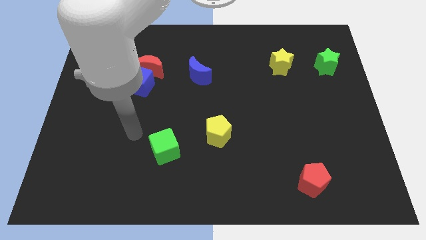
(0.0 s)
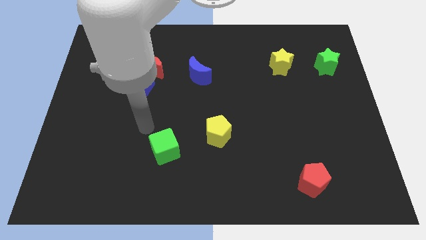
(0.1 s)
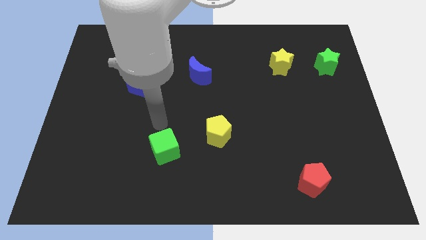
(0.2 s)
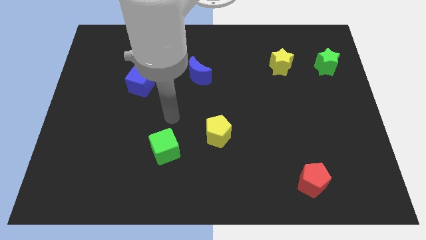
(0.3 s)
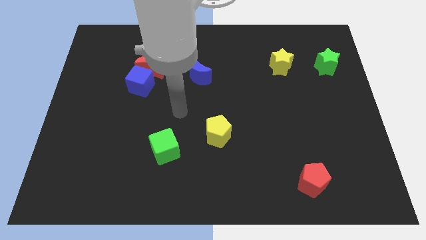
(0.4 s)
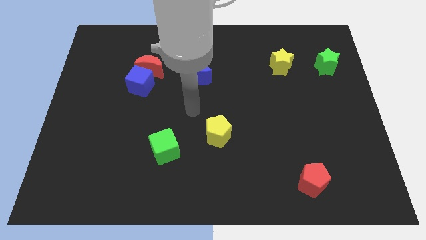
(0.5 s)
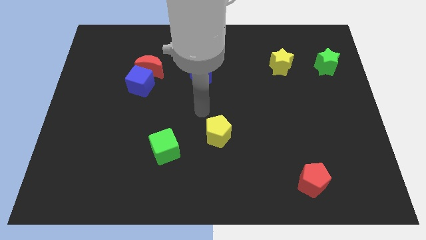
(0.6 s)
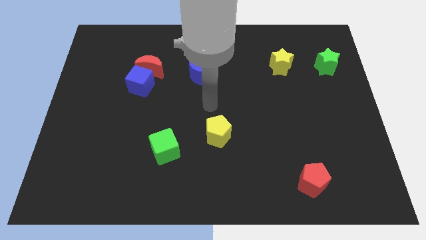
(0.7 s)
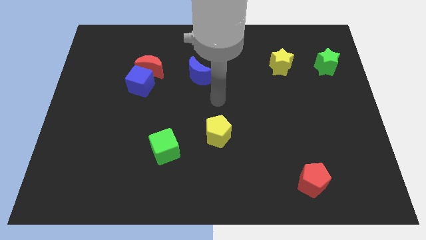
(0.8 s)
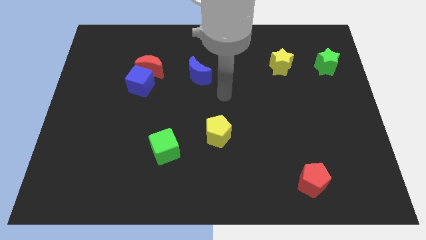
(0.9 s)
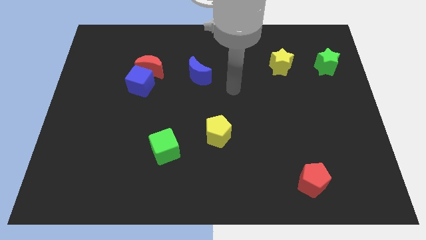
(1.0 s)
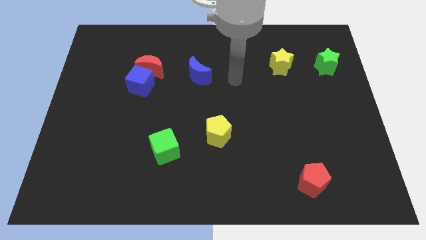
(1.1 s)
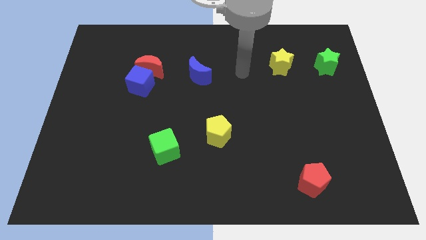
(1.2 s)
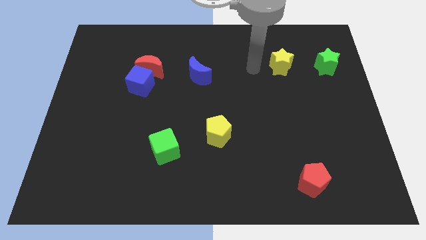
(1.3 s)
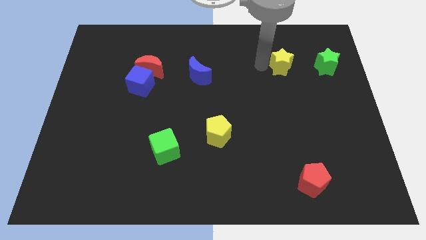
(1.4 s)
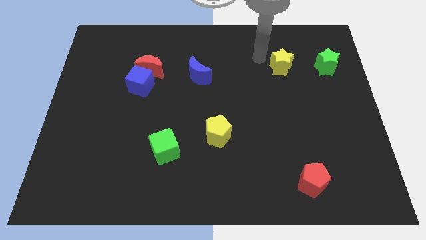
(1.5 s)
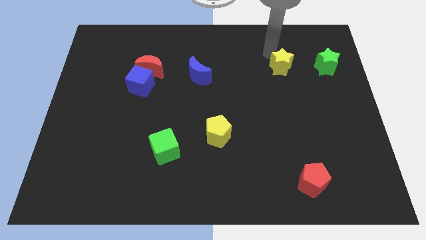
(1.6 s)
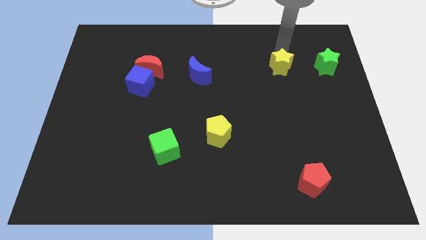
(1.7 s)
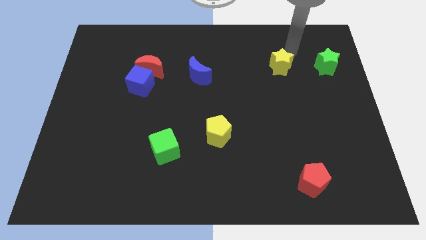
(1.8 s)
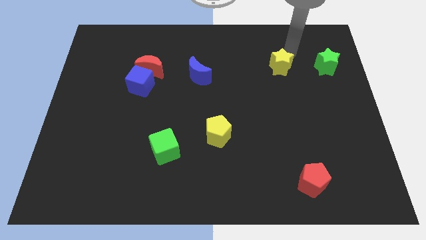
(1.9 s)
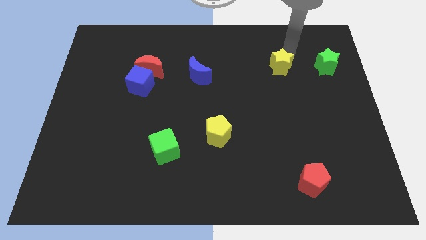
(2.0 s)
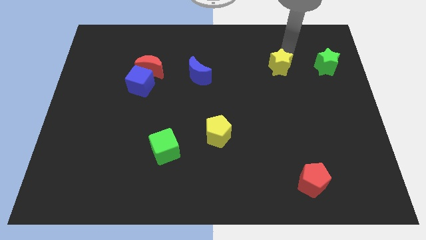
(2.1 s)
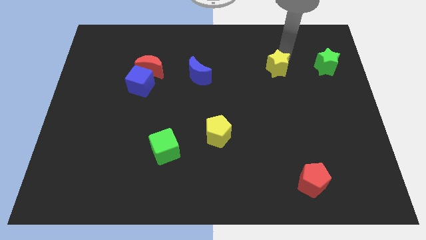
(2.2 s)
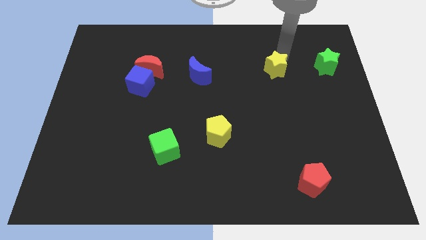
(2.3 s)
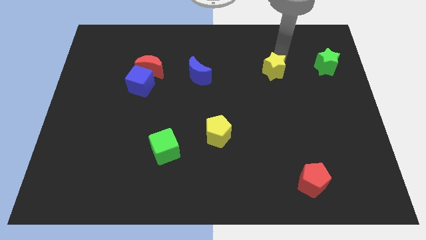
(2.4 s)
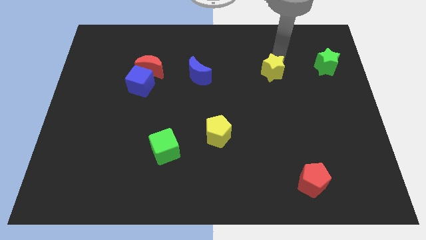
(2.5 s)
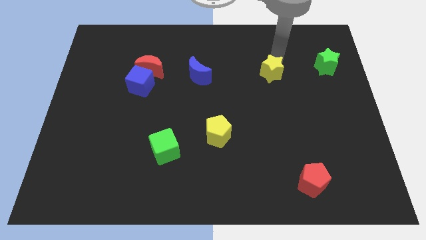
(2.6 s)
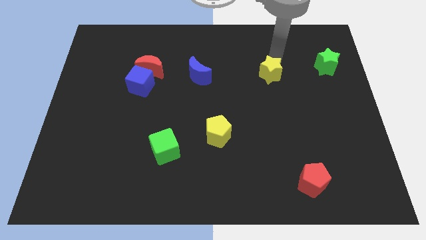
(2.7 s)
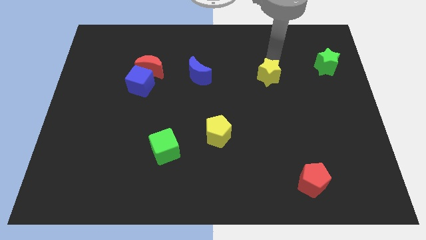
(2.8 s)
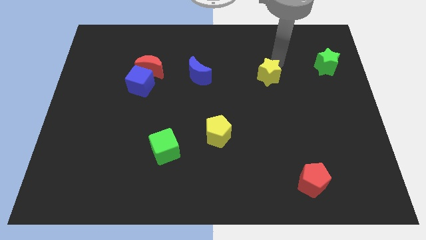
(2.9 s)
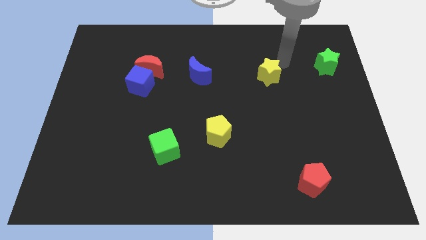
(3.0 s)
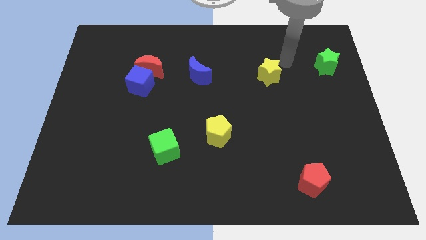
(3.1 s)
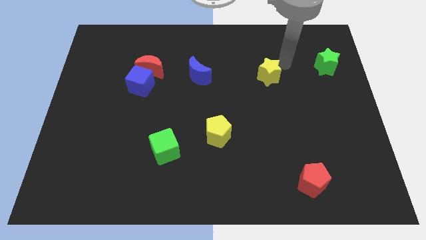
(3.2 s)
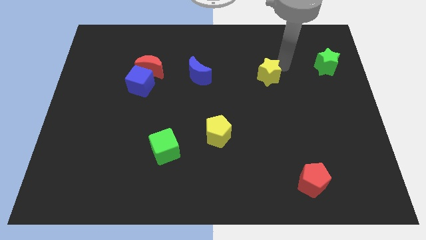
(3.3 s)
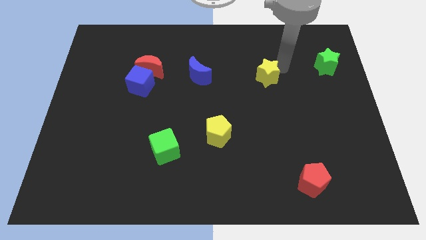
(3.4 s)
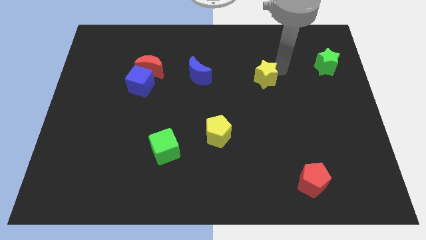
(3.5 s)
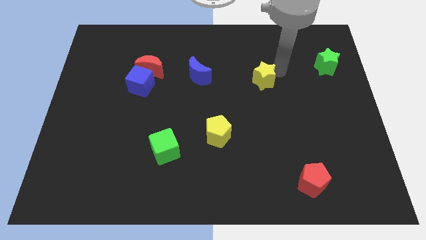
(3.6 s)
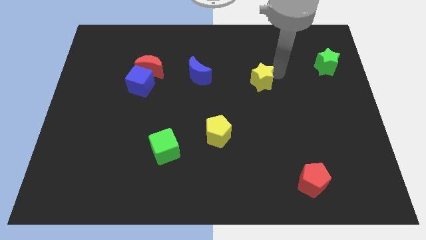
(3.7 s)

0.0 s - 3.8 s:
move the yellow star downwards and to the left somewhat

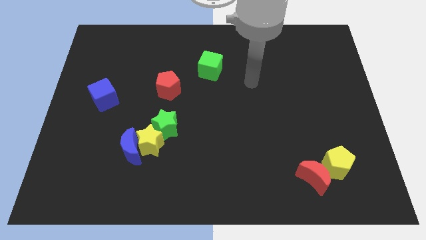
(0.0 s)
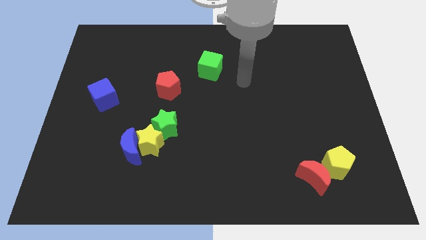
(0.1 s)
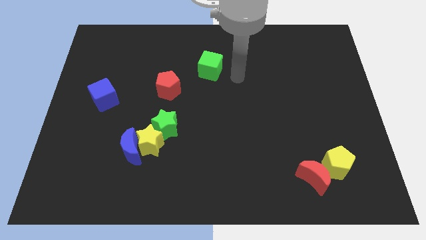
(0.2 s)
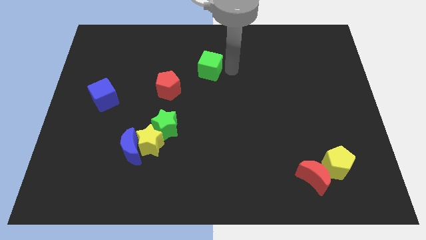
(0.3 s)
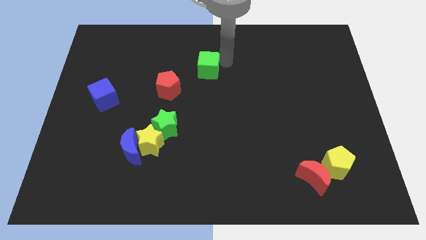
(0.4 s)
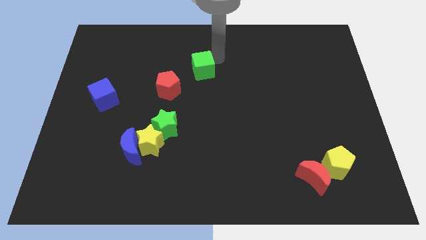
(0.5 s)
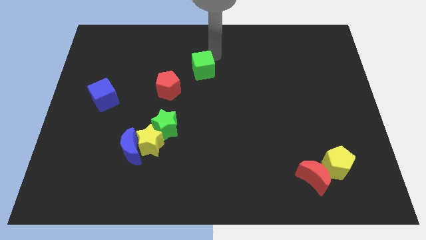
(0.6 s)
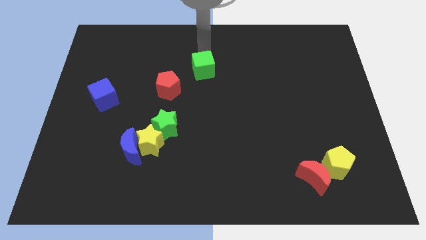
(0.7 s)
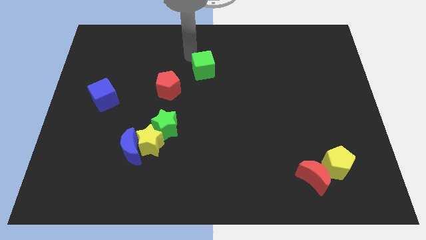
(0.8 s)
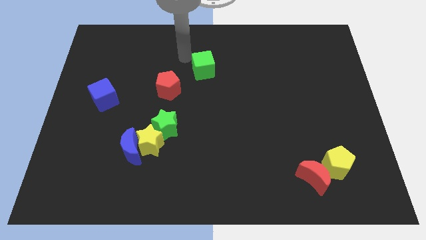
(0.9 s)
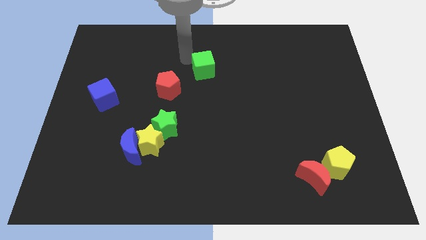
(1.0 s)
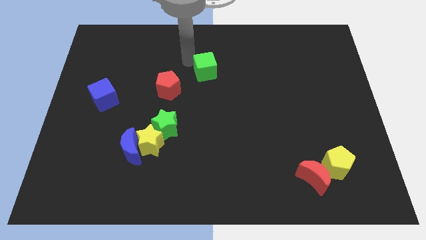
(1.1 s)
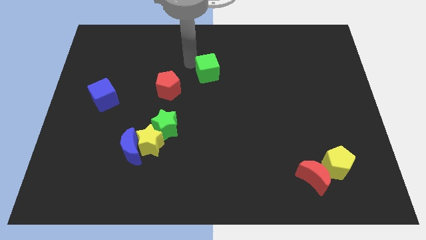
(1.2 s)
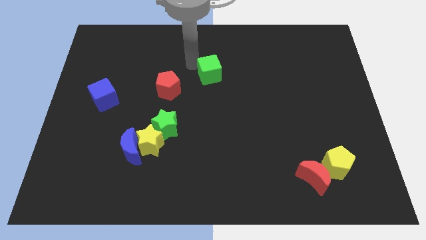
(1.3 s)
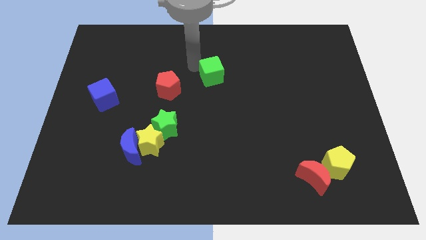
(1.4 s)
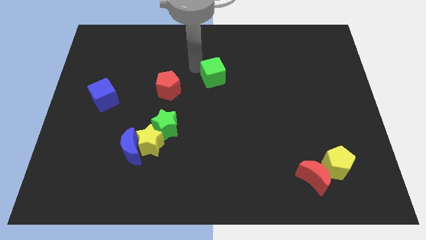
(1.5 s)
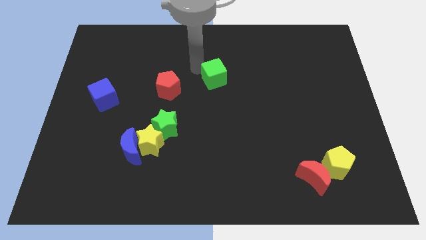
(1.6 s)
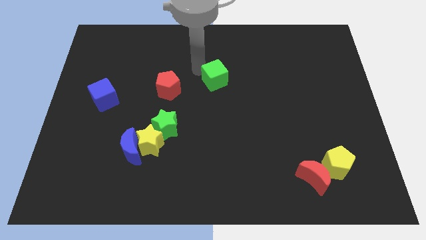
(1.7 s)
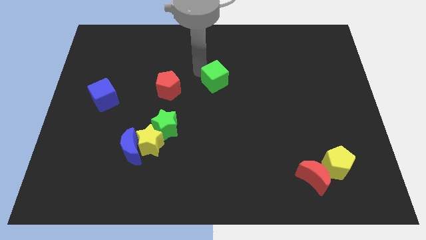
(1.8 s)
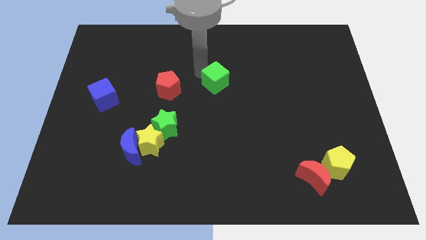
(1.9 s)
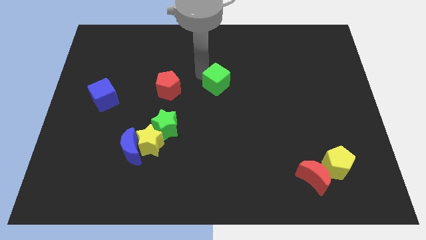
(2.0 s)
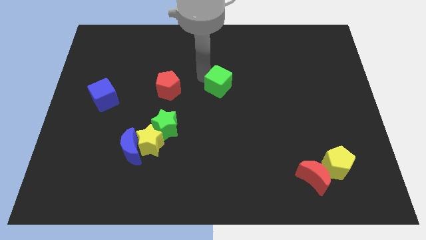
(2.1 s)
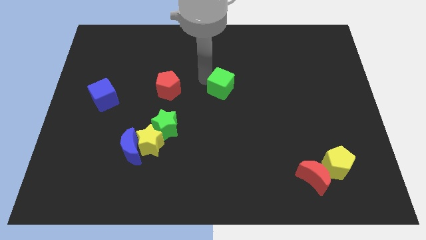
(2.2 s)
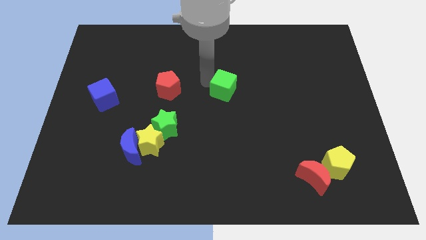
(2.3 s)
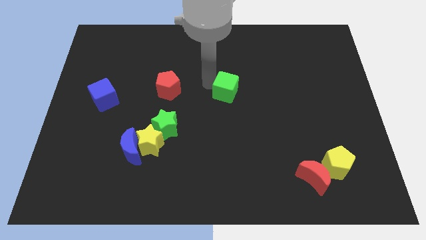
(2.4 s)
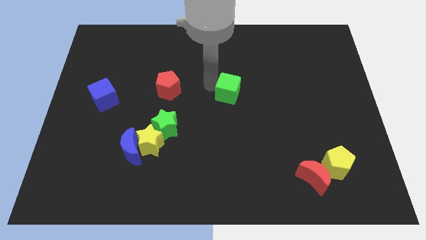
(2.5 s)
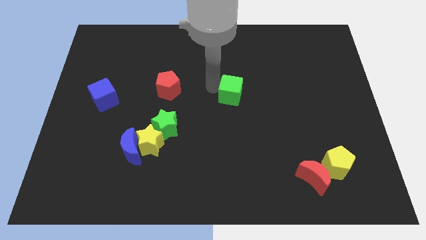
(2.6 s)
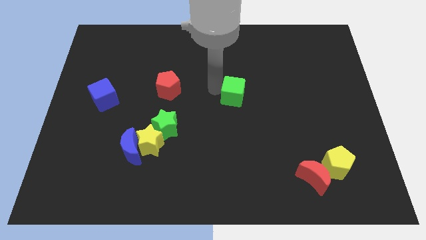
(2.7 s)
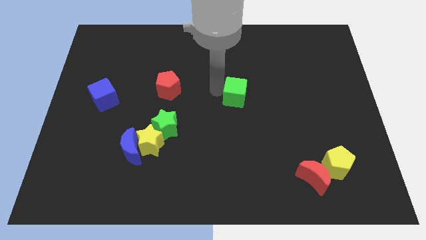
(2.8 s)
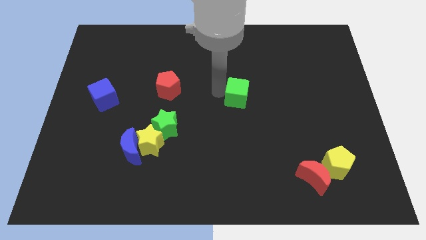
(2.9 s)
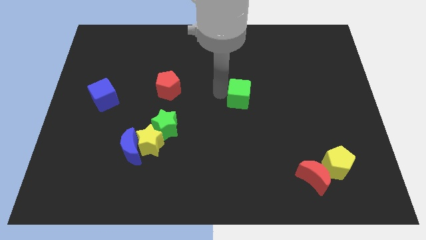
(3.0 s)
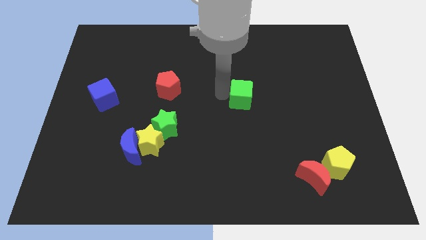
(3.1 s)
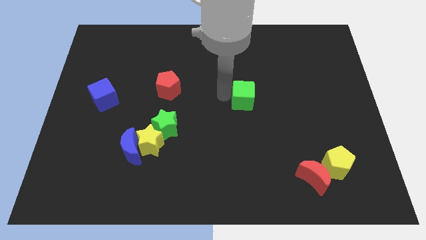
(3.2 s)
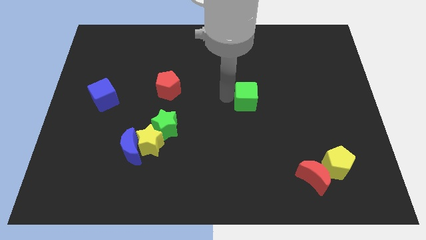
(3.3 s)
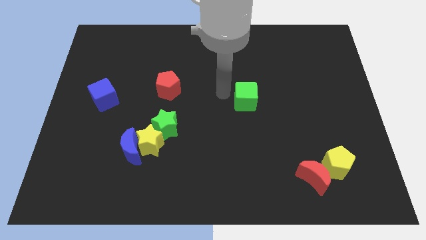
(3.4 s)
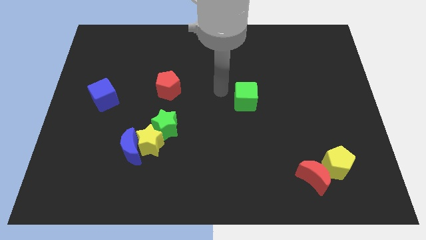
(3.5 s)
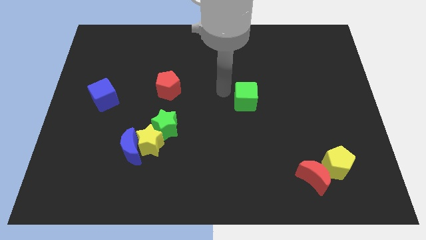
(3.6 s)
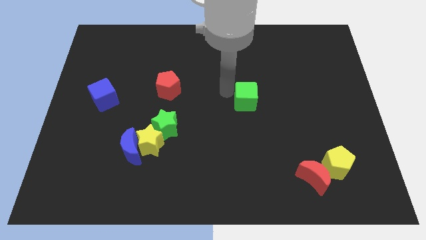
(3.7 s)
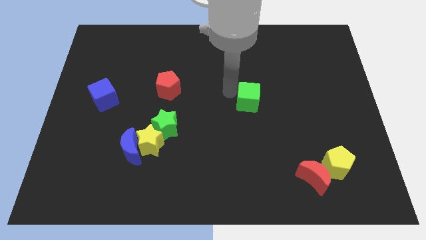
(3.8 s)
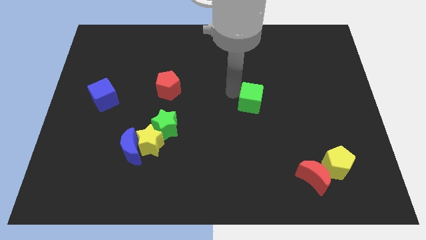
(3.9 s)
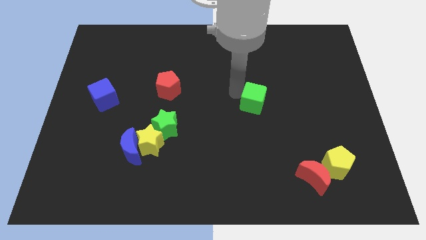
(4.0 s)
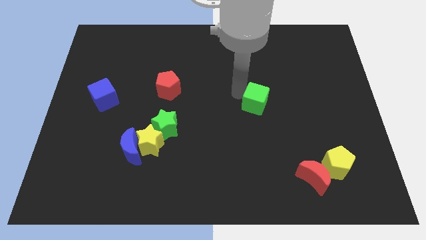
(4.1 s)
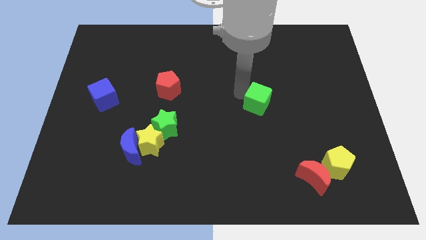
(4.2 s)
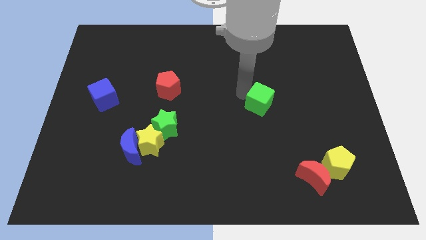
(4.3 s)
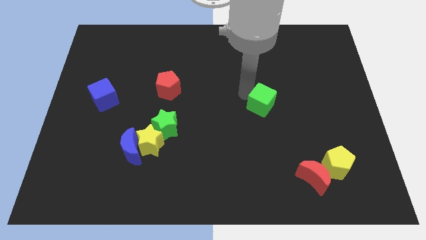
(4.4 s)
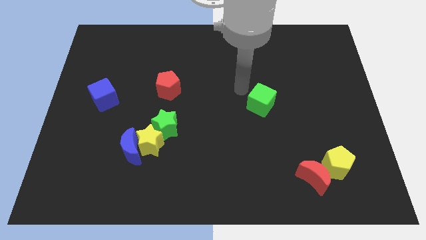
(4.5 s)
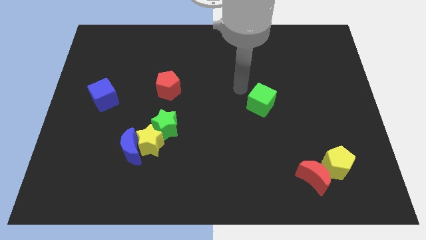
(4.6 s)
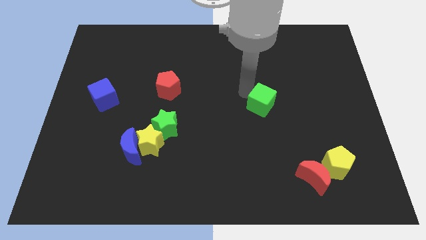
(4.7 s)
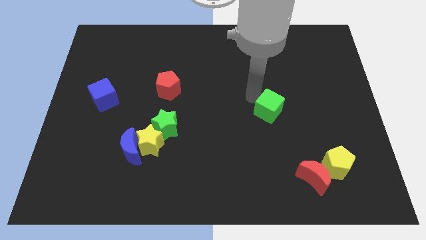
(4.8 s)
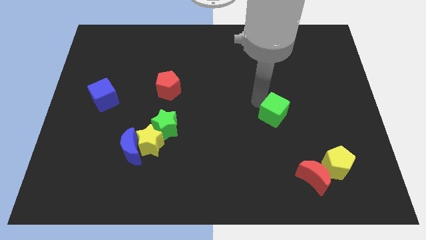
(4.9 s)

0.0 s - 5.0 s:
move the green cube diagonally downwards and right
